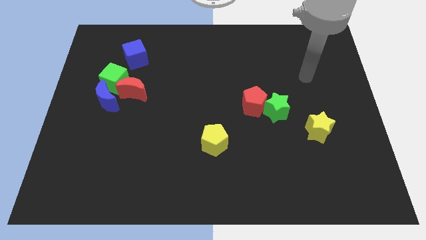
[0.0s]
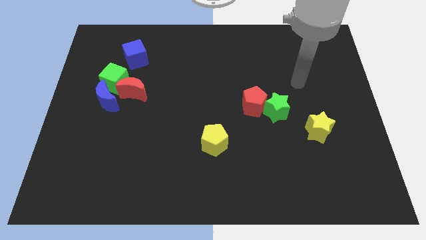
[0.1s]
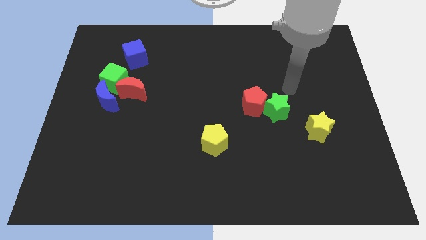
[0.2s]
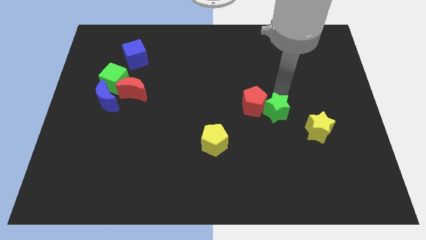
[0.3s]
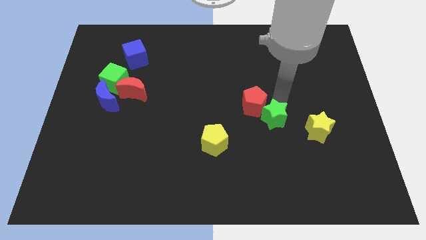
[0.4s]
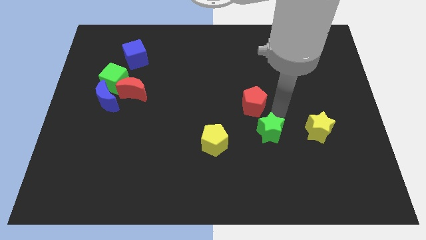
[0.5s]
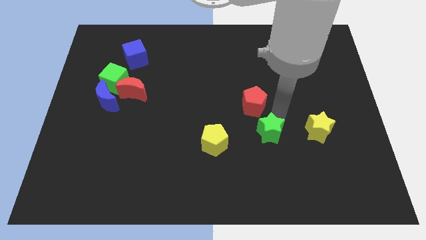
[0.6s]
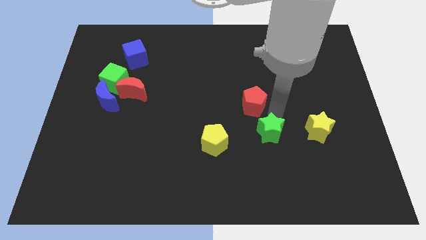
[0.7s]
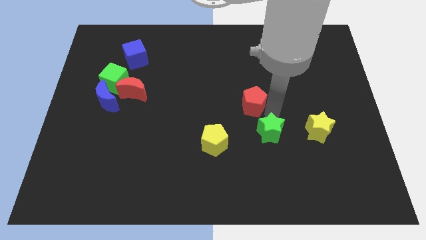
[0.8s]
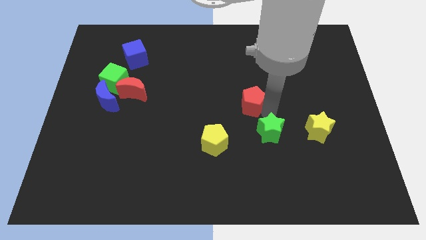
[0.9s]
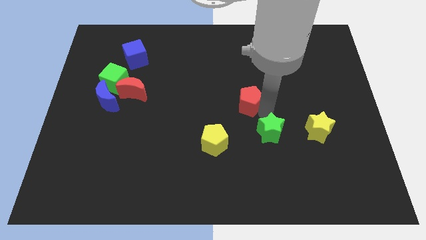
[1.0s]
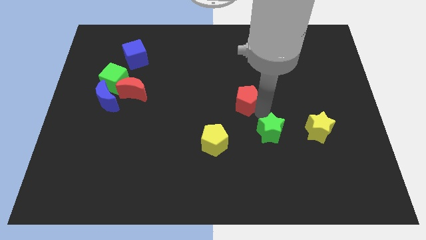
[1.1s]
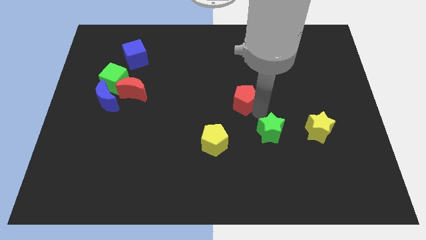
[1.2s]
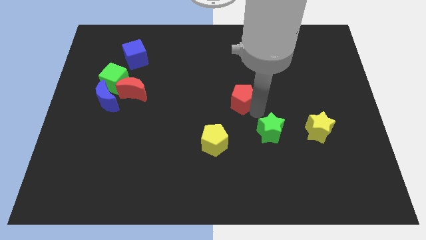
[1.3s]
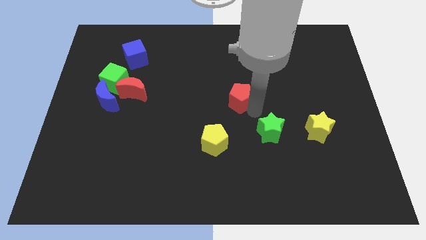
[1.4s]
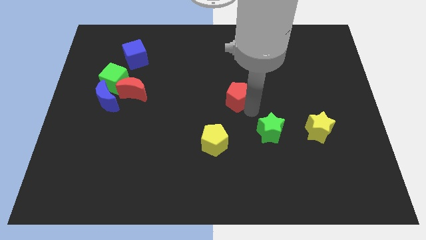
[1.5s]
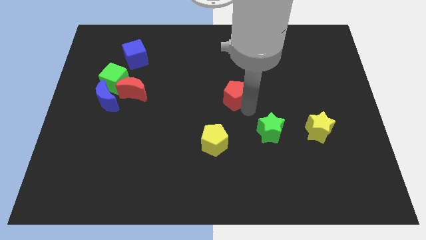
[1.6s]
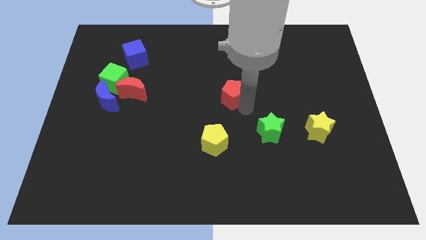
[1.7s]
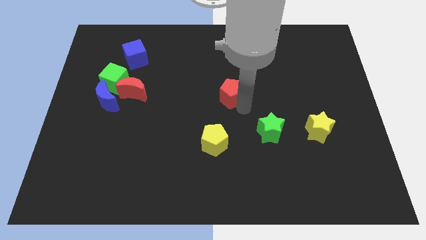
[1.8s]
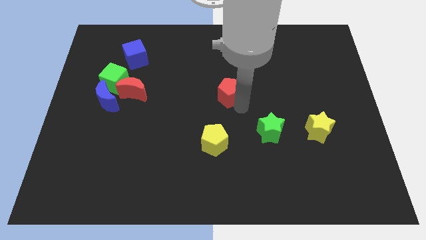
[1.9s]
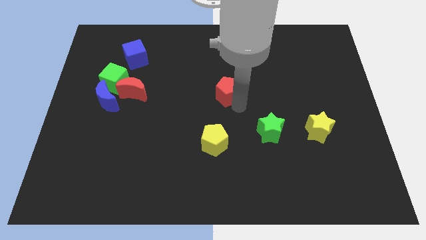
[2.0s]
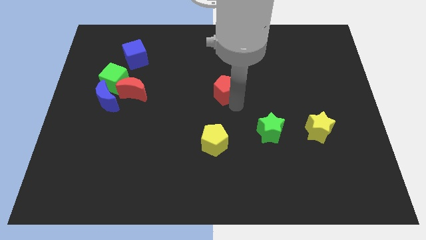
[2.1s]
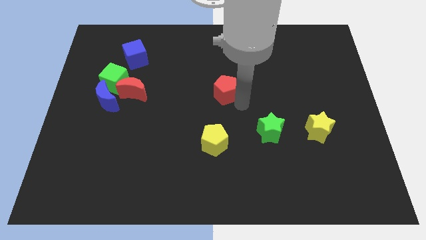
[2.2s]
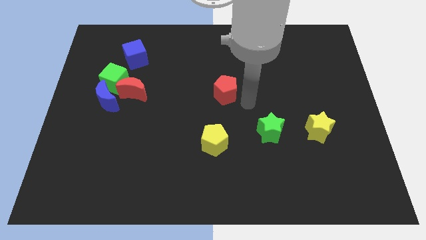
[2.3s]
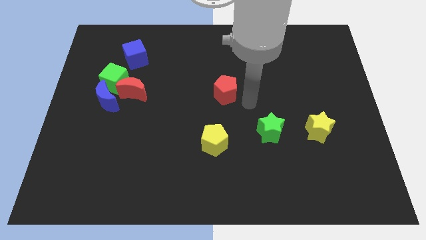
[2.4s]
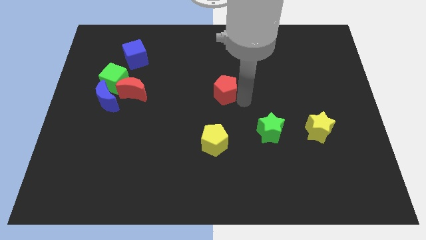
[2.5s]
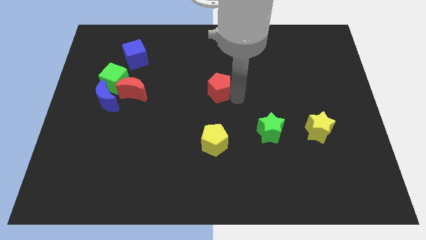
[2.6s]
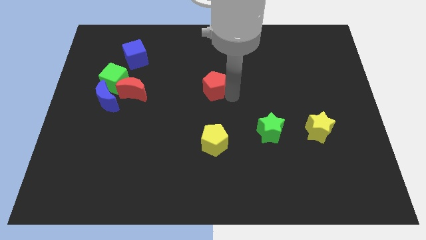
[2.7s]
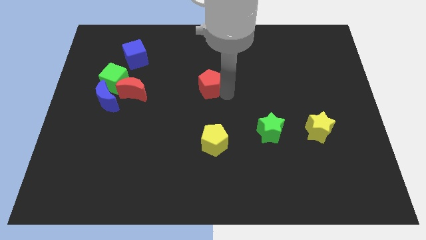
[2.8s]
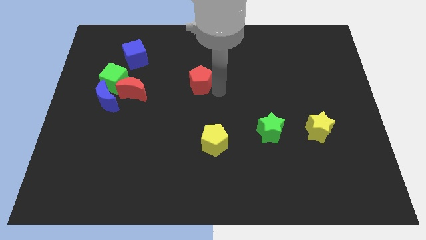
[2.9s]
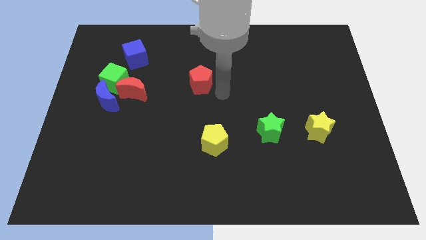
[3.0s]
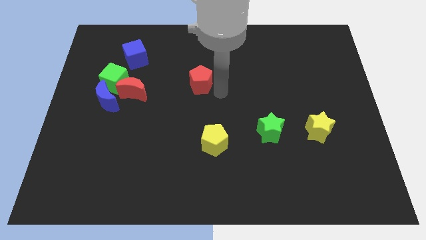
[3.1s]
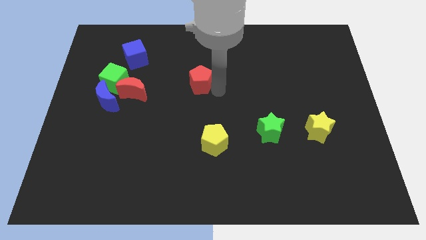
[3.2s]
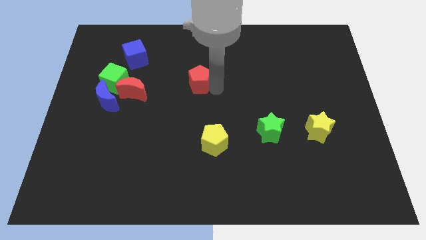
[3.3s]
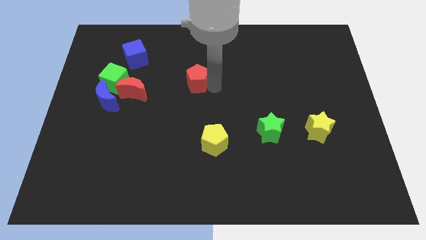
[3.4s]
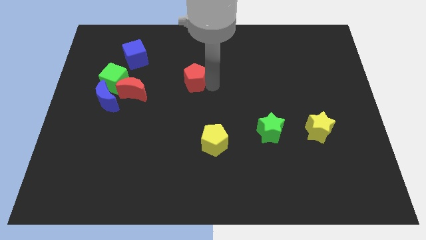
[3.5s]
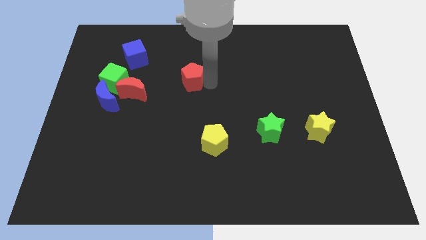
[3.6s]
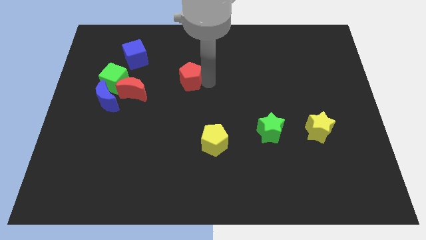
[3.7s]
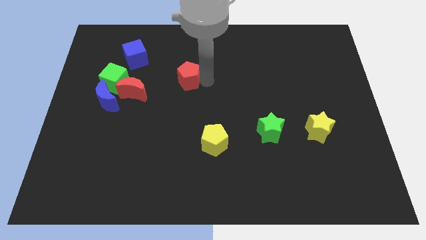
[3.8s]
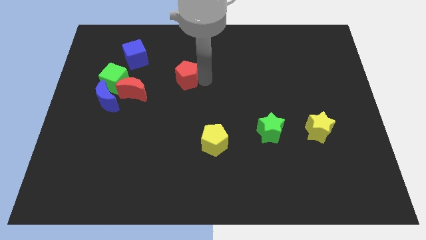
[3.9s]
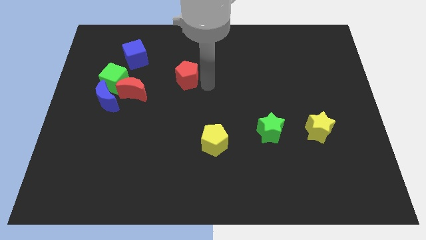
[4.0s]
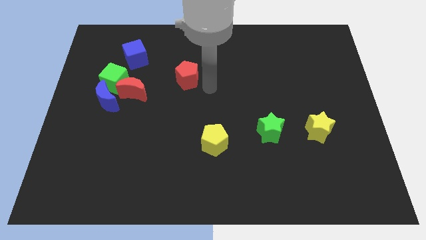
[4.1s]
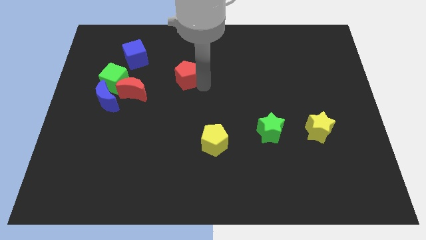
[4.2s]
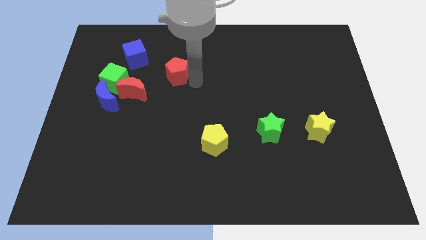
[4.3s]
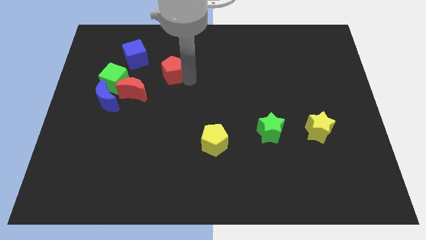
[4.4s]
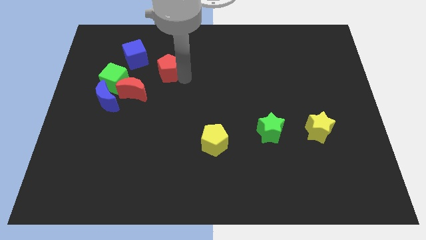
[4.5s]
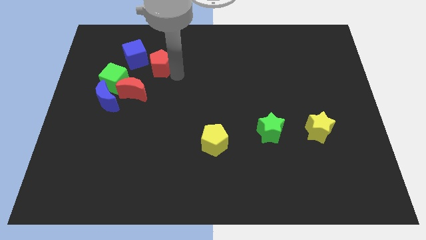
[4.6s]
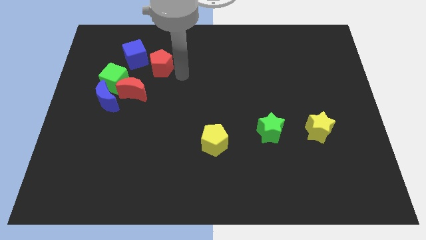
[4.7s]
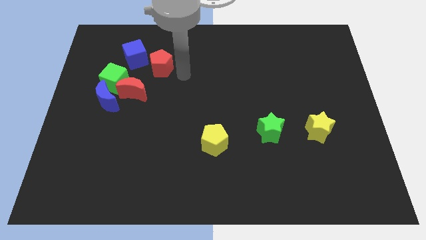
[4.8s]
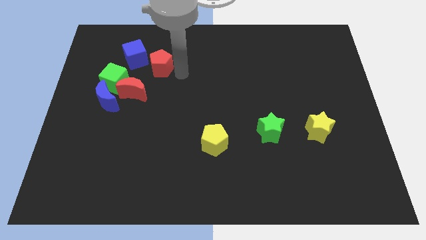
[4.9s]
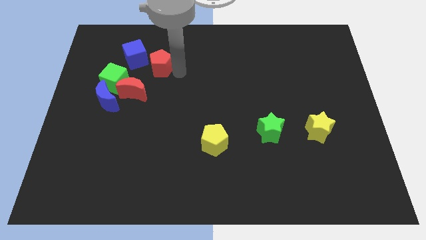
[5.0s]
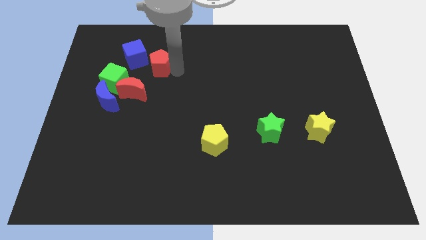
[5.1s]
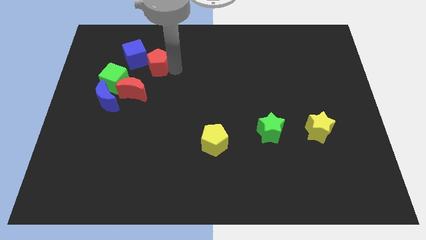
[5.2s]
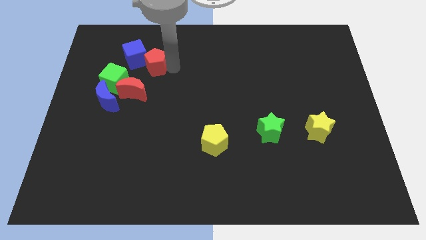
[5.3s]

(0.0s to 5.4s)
move the red pentagon close to the blue cube

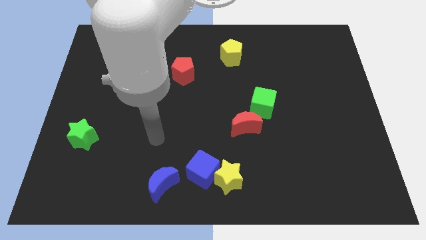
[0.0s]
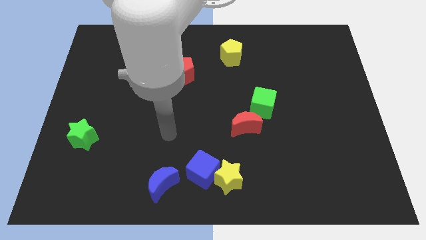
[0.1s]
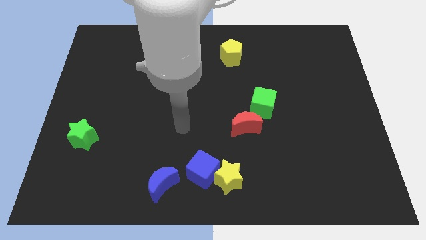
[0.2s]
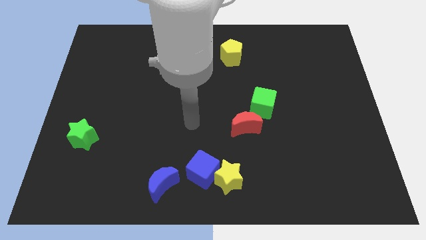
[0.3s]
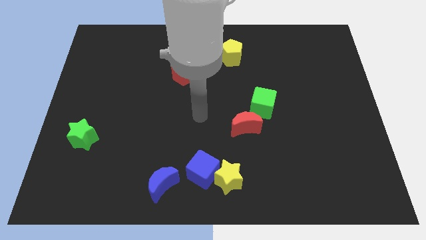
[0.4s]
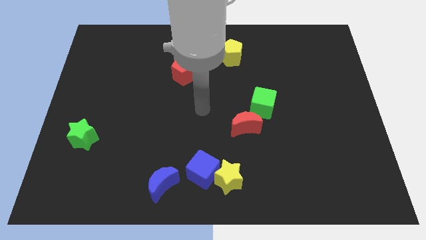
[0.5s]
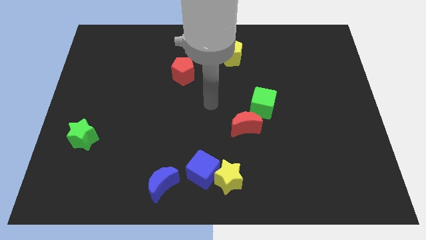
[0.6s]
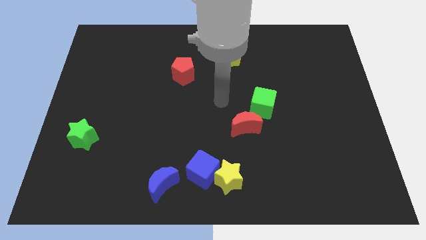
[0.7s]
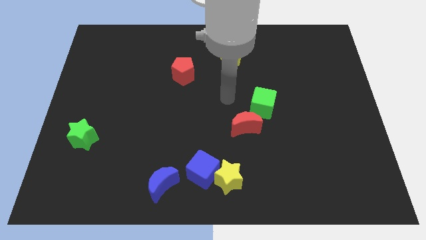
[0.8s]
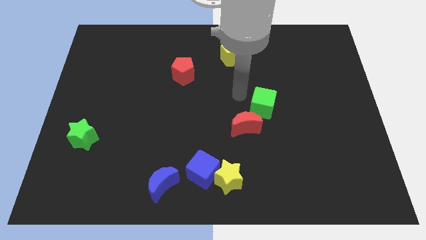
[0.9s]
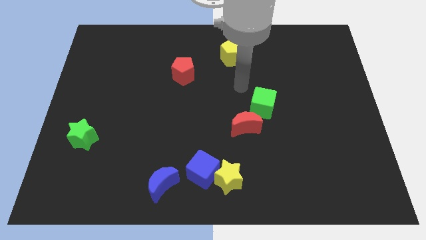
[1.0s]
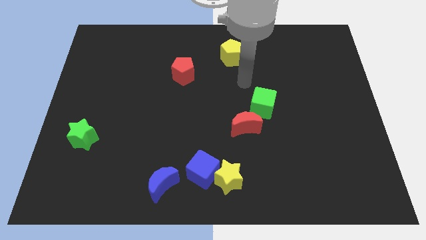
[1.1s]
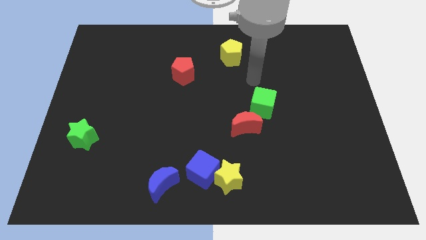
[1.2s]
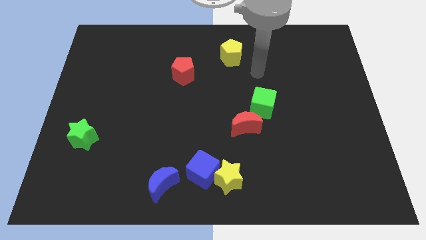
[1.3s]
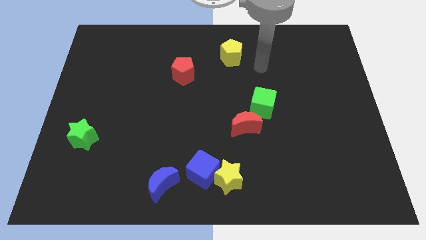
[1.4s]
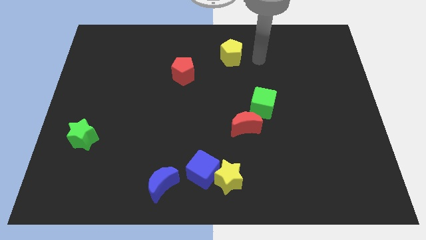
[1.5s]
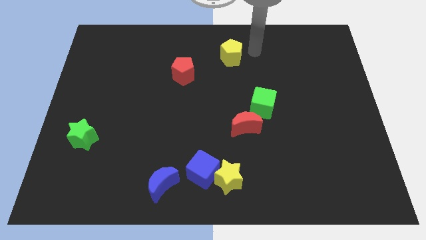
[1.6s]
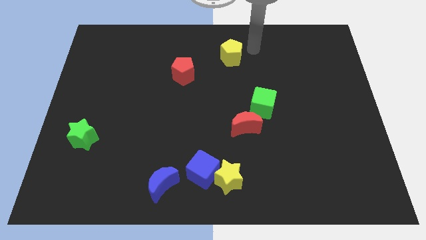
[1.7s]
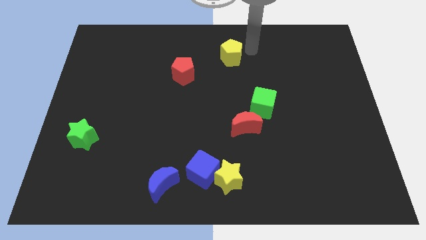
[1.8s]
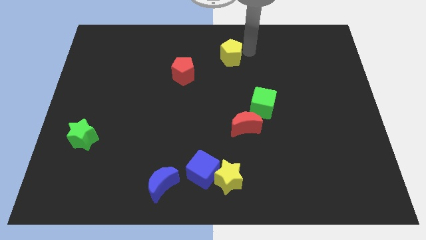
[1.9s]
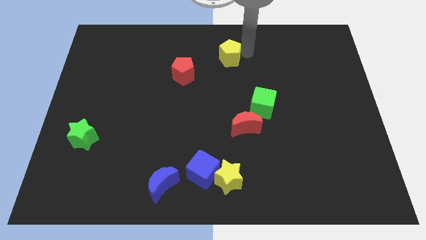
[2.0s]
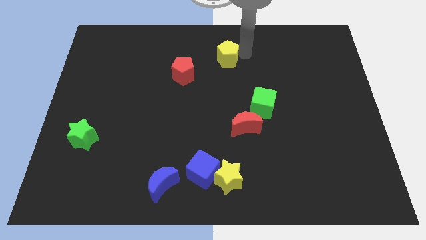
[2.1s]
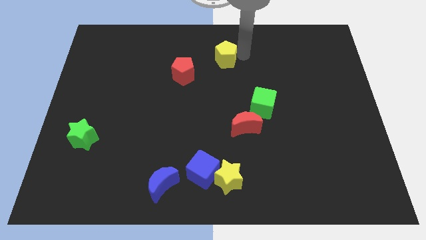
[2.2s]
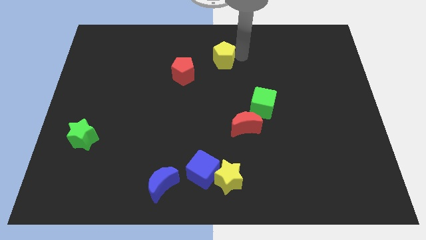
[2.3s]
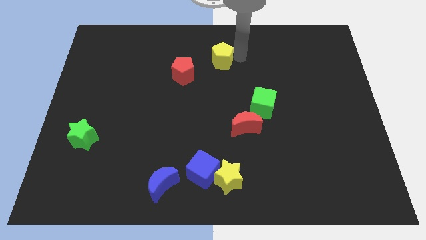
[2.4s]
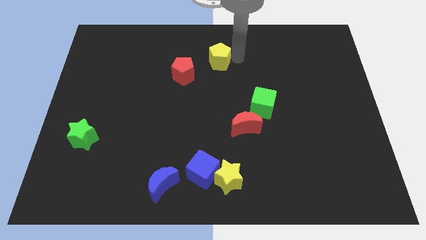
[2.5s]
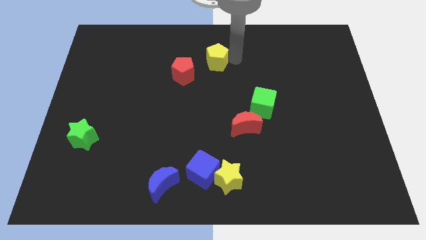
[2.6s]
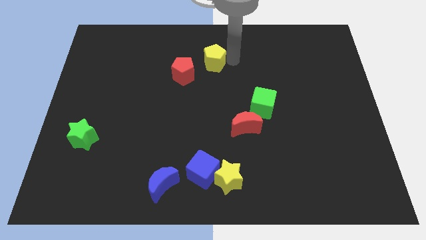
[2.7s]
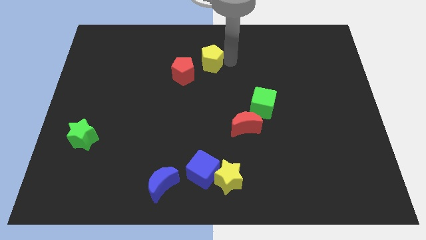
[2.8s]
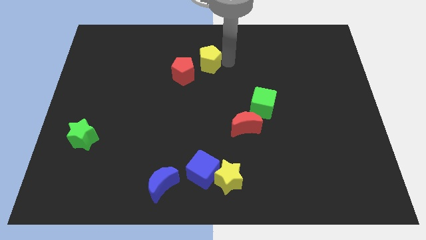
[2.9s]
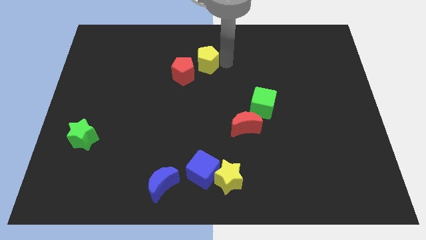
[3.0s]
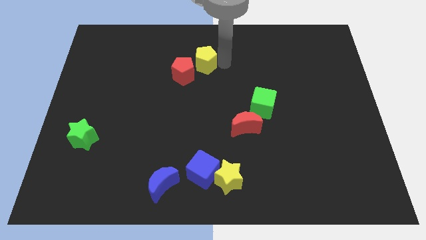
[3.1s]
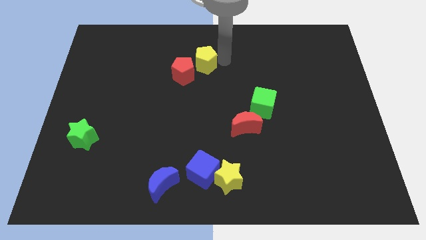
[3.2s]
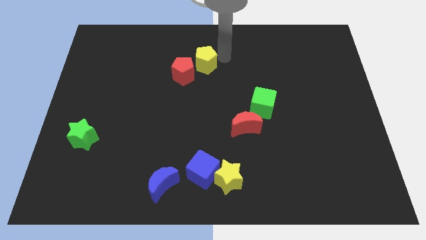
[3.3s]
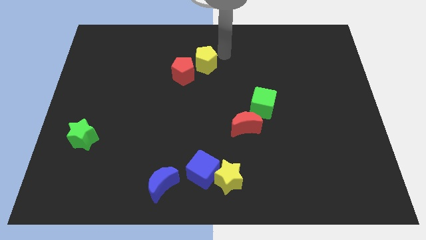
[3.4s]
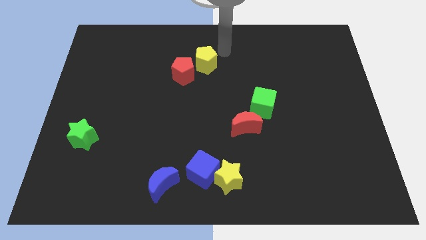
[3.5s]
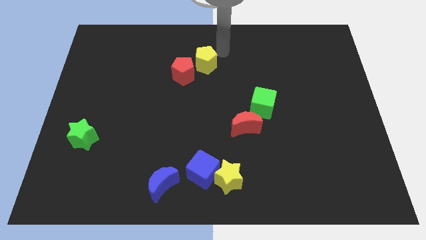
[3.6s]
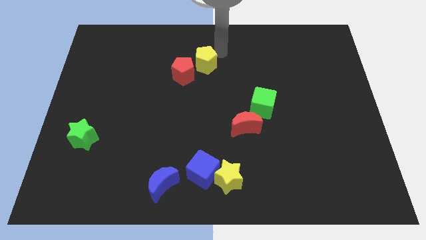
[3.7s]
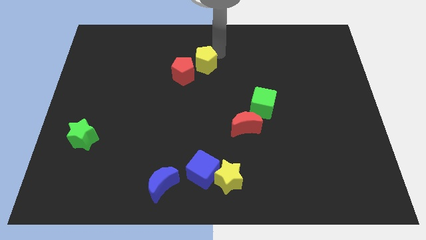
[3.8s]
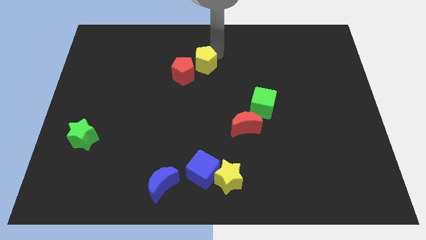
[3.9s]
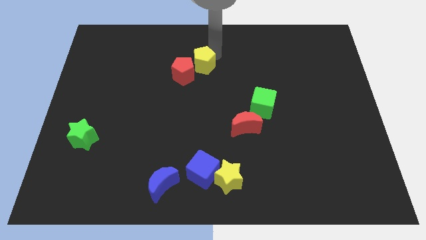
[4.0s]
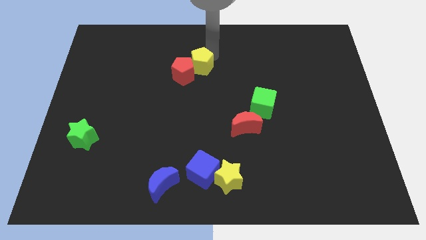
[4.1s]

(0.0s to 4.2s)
put the yellow pentagon close to the red pentagon
